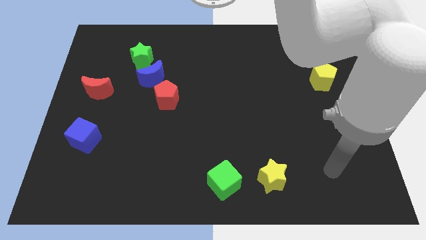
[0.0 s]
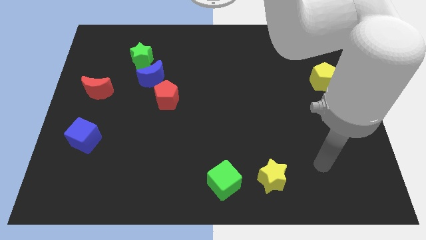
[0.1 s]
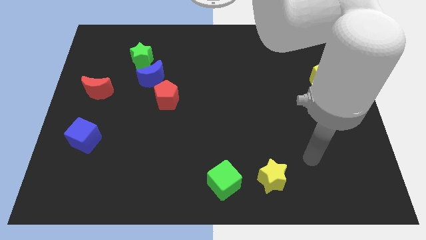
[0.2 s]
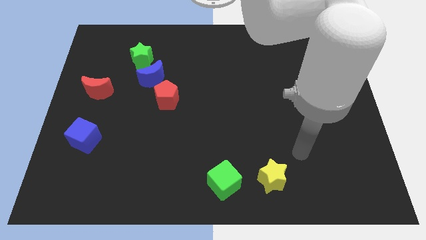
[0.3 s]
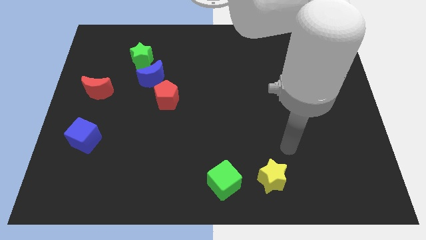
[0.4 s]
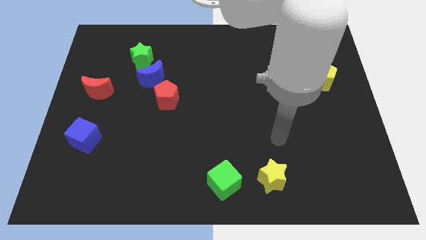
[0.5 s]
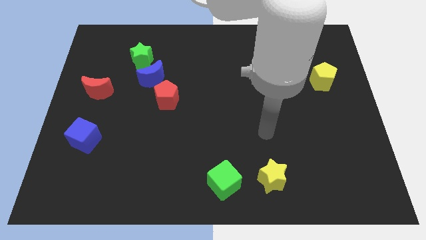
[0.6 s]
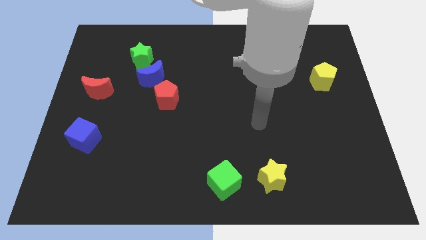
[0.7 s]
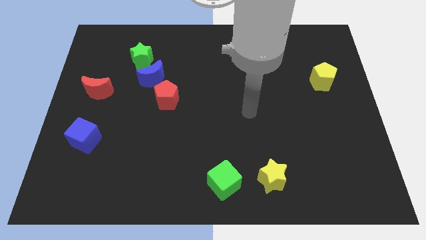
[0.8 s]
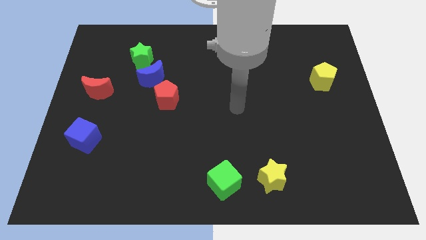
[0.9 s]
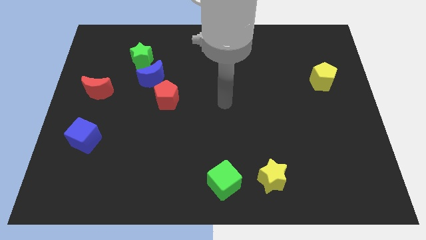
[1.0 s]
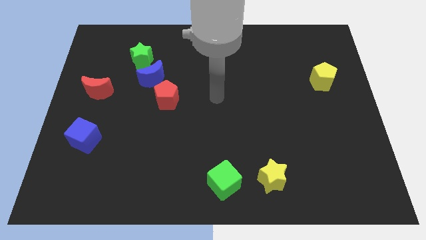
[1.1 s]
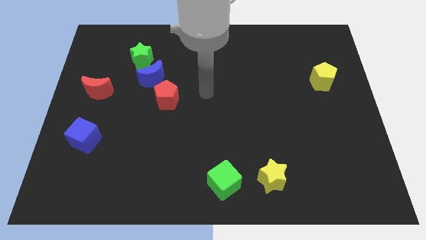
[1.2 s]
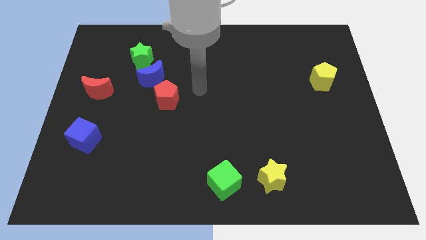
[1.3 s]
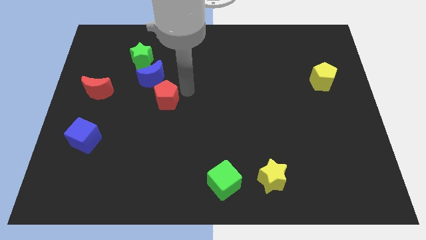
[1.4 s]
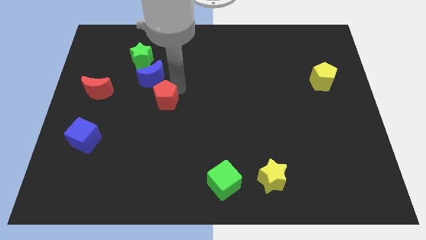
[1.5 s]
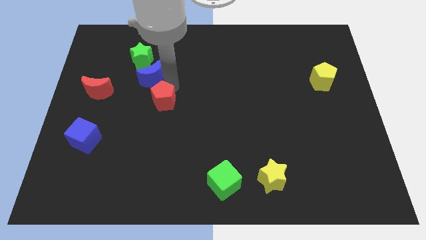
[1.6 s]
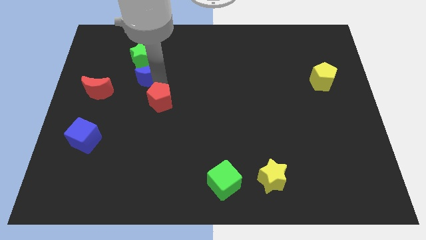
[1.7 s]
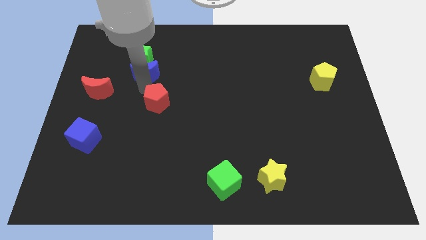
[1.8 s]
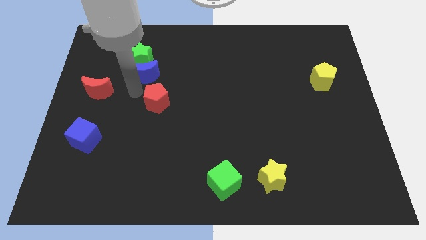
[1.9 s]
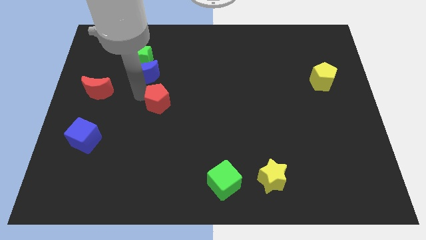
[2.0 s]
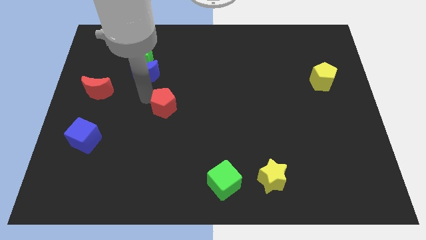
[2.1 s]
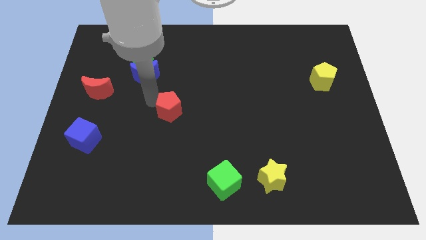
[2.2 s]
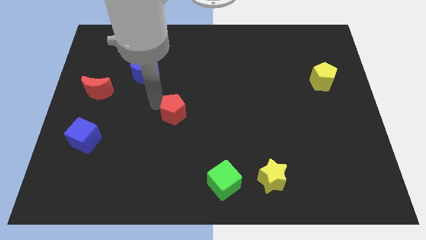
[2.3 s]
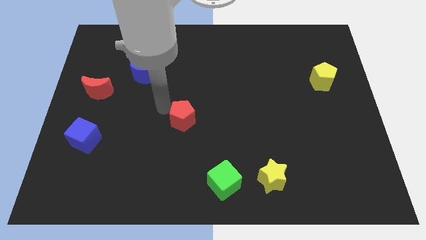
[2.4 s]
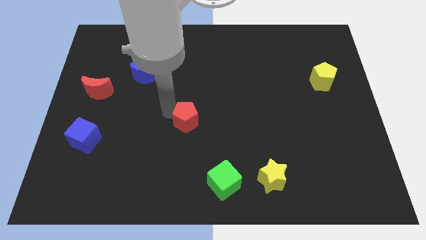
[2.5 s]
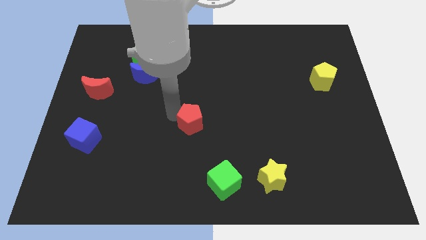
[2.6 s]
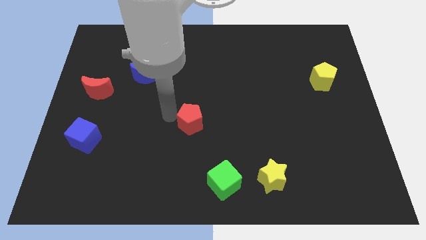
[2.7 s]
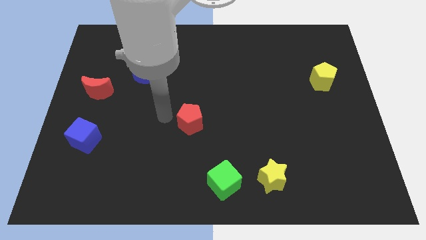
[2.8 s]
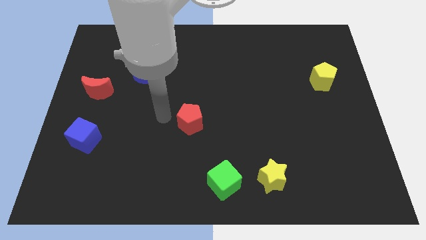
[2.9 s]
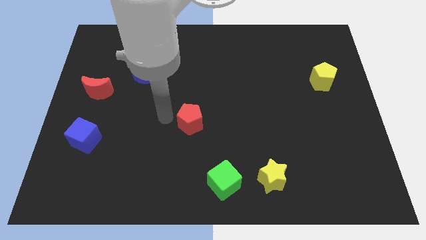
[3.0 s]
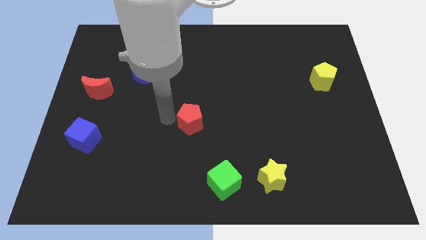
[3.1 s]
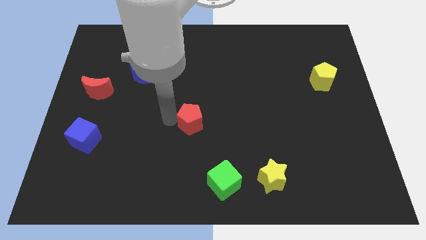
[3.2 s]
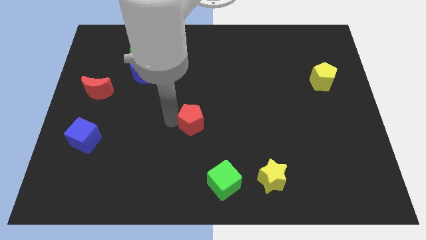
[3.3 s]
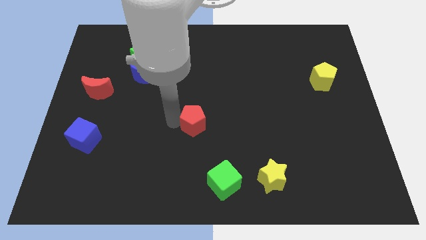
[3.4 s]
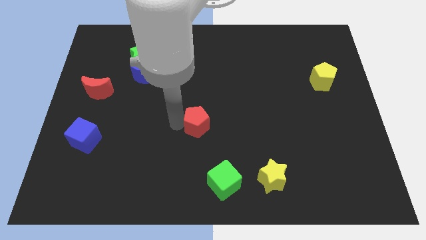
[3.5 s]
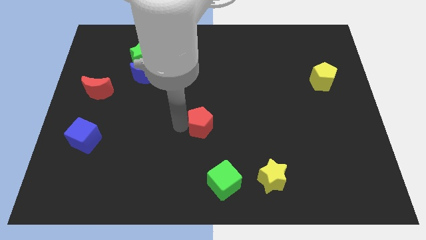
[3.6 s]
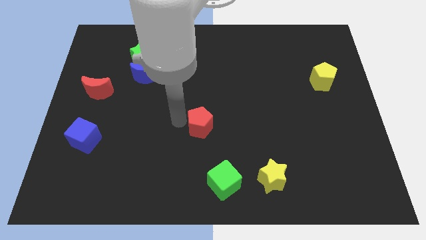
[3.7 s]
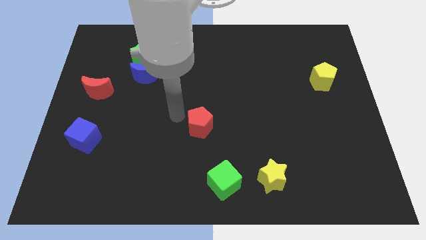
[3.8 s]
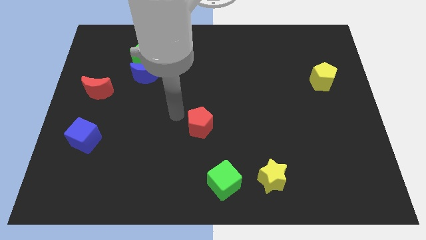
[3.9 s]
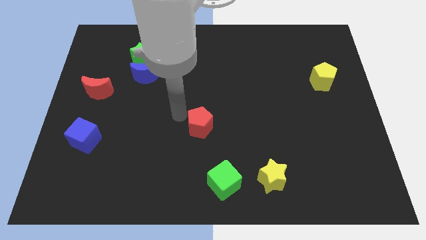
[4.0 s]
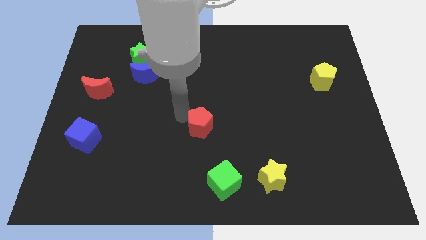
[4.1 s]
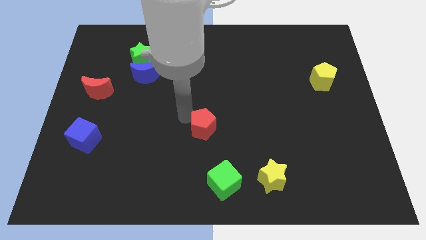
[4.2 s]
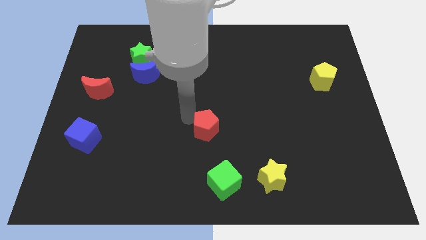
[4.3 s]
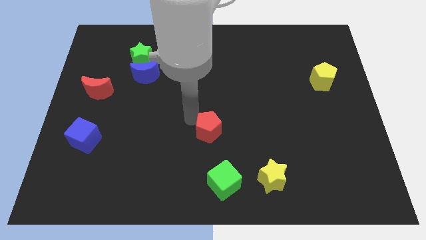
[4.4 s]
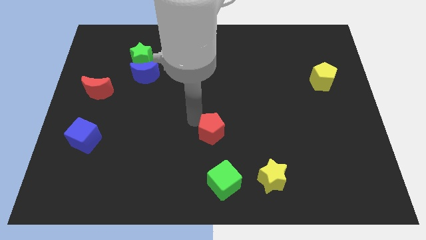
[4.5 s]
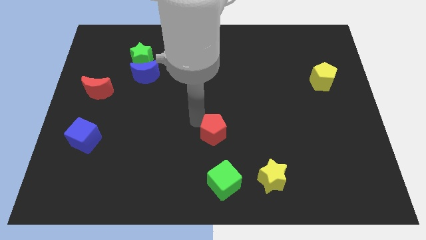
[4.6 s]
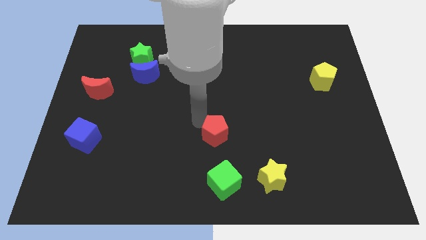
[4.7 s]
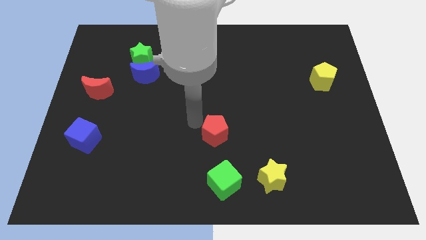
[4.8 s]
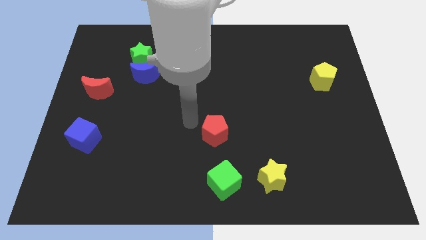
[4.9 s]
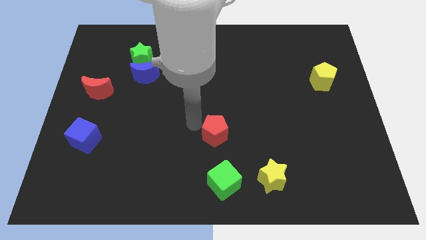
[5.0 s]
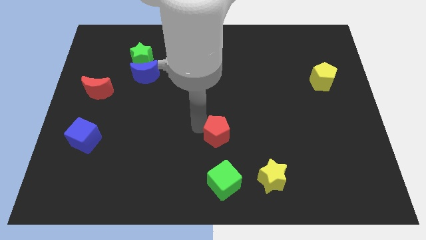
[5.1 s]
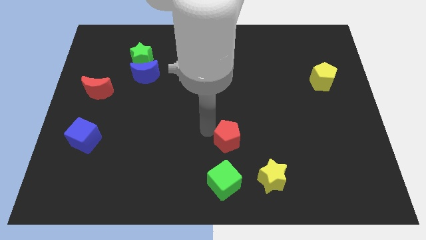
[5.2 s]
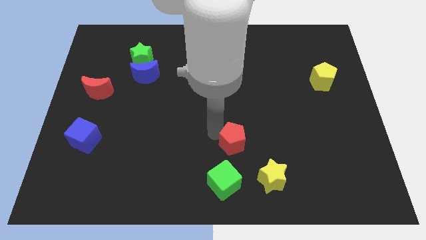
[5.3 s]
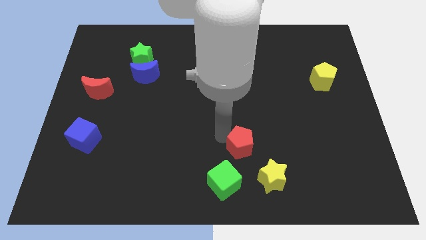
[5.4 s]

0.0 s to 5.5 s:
move the red pentagon to the top right of the green cube

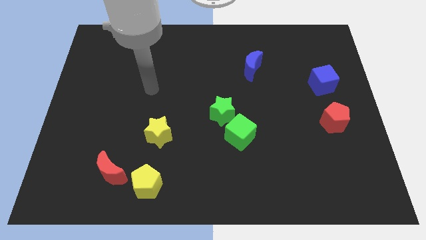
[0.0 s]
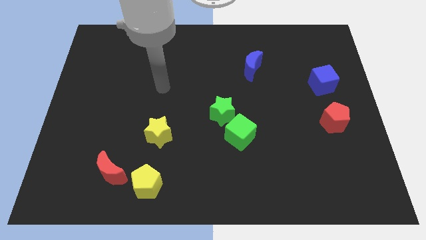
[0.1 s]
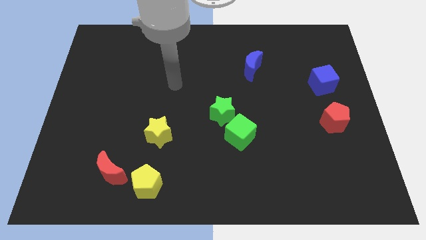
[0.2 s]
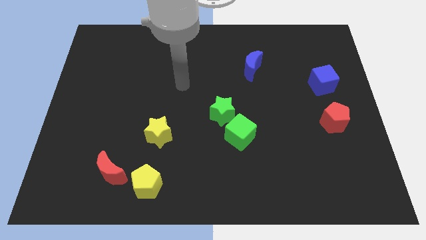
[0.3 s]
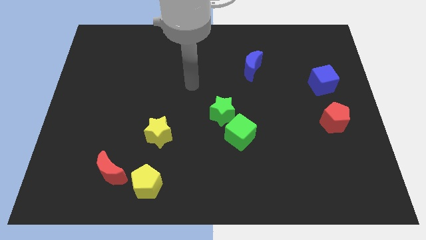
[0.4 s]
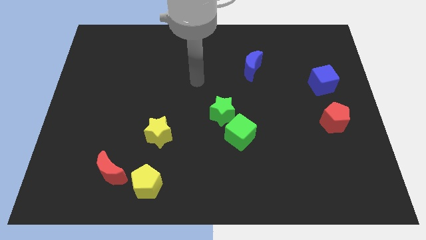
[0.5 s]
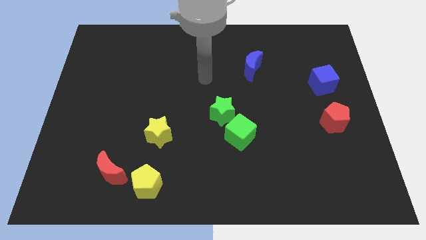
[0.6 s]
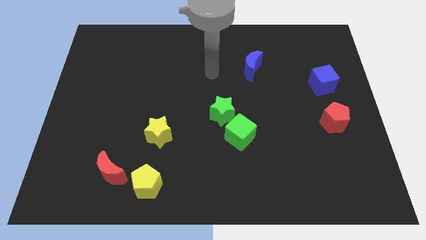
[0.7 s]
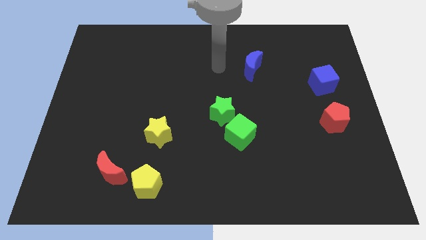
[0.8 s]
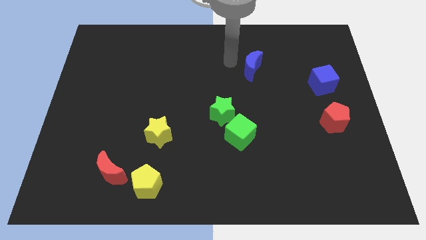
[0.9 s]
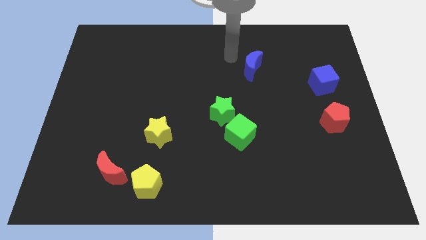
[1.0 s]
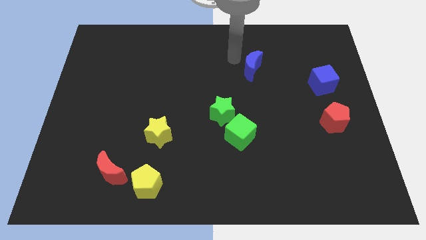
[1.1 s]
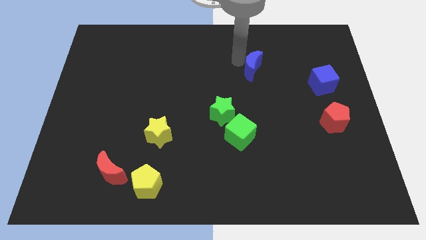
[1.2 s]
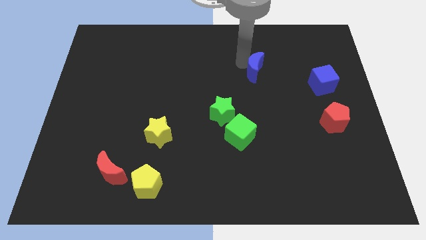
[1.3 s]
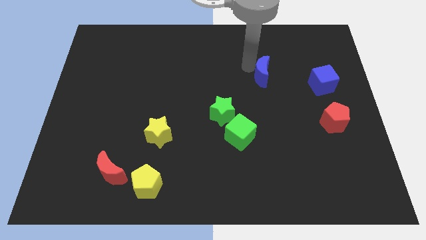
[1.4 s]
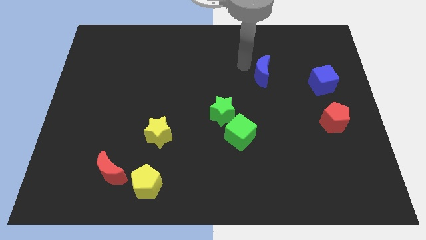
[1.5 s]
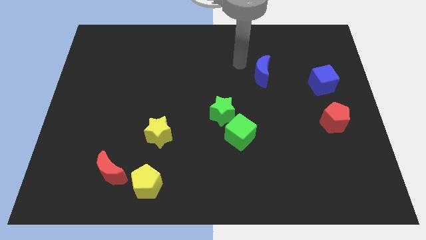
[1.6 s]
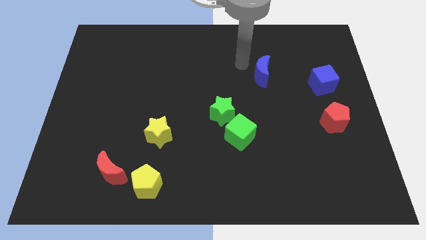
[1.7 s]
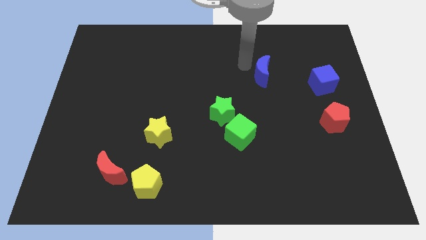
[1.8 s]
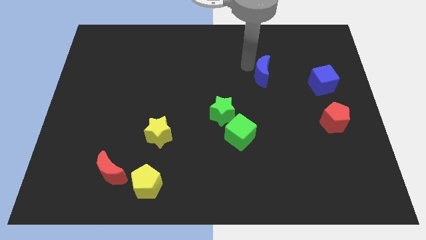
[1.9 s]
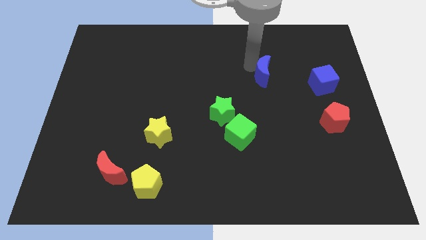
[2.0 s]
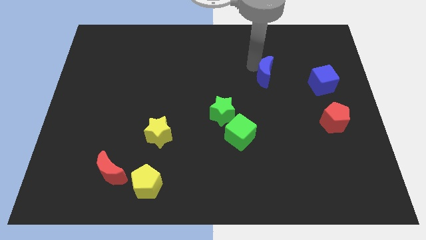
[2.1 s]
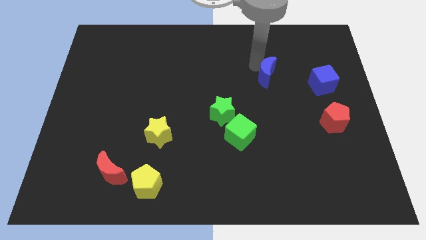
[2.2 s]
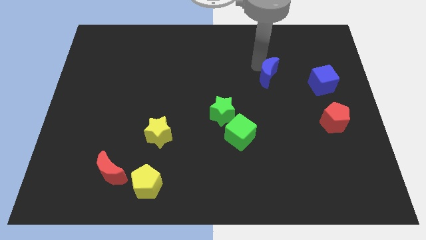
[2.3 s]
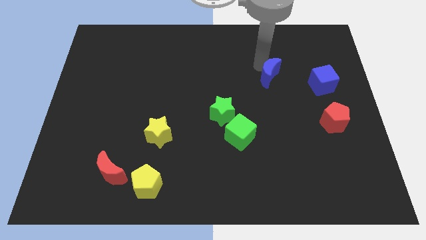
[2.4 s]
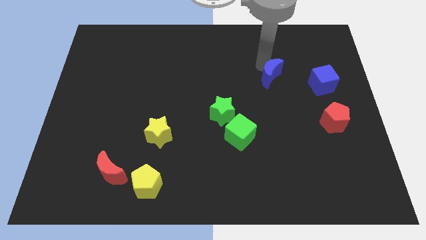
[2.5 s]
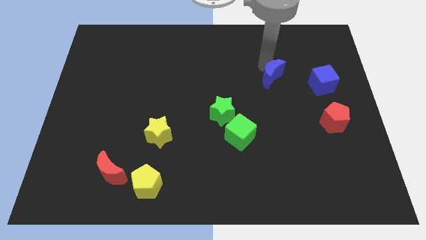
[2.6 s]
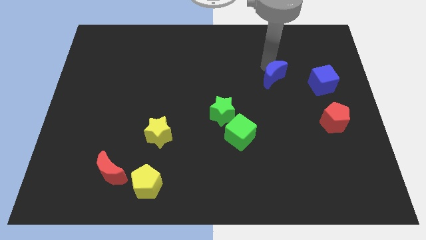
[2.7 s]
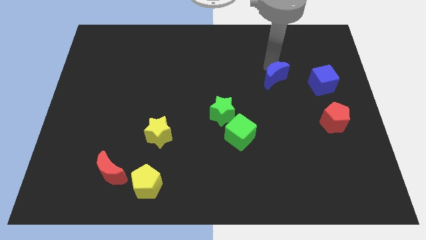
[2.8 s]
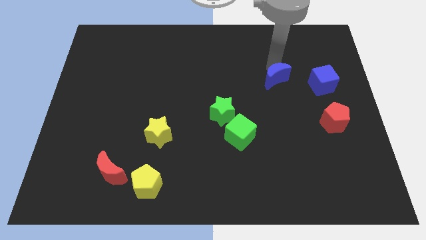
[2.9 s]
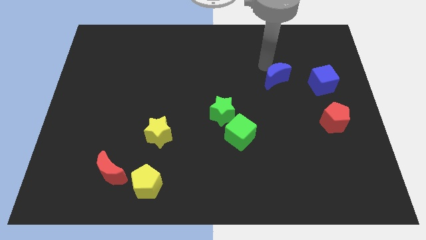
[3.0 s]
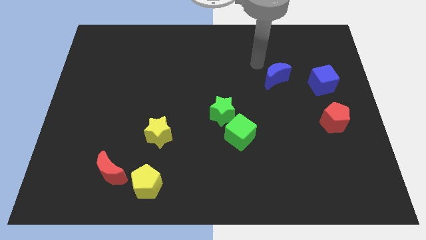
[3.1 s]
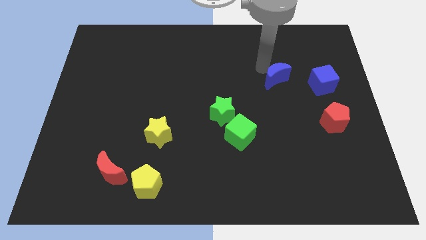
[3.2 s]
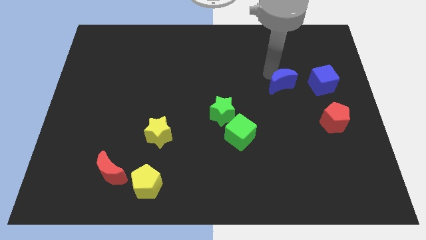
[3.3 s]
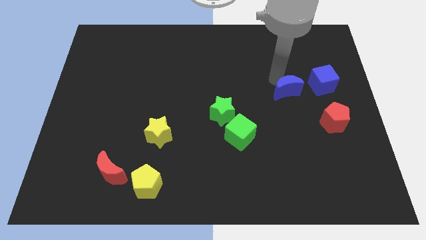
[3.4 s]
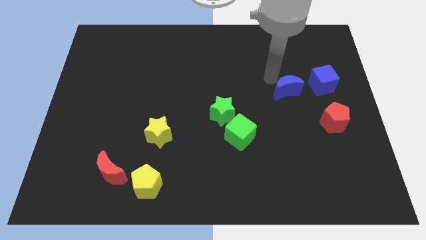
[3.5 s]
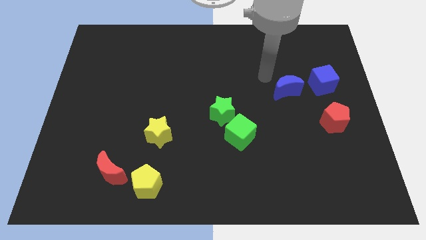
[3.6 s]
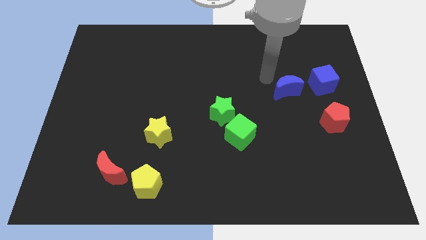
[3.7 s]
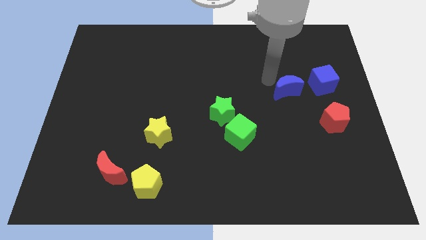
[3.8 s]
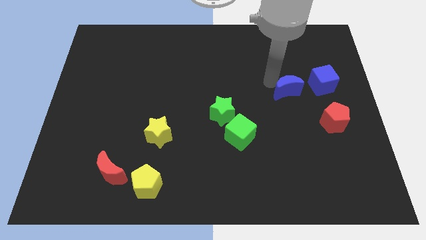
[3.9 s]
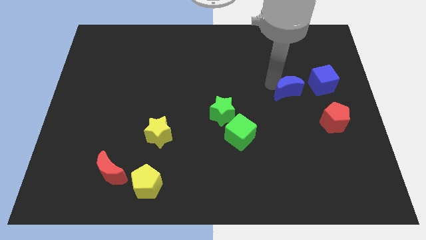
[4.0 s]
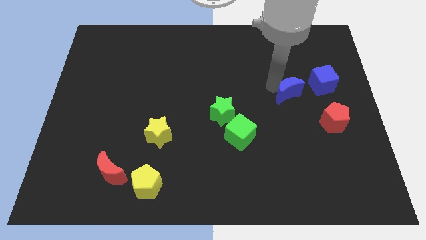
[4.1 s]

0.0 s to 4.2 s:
push the blue moon to the top left side of the red pentagon
